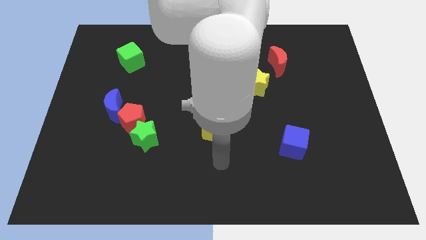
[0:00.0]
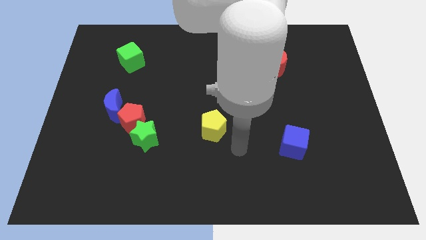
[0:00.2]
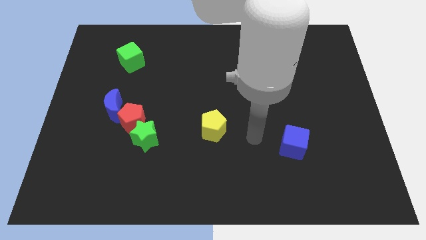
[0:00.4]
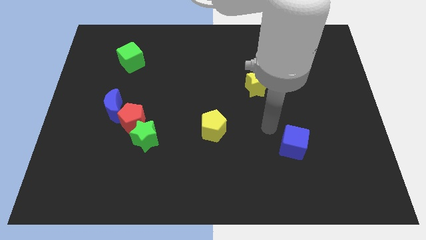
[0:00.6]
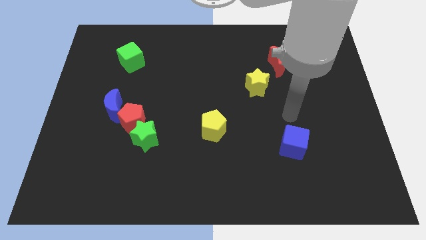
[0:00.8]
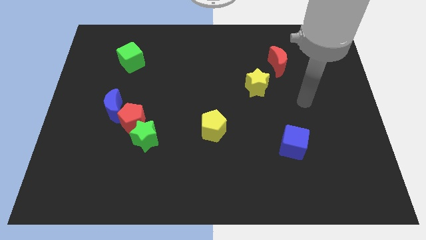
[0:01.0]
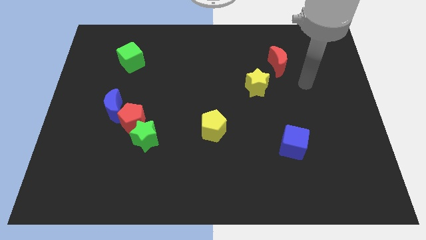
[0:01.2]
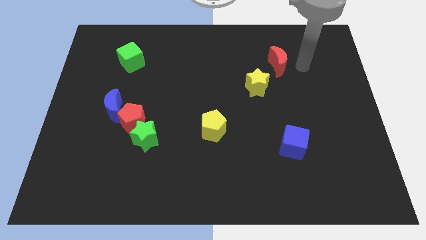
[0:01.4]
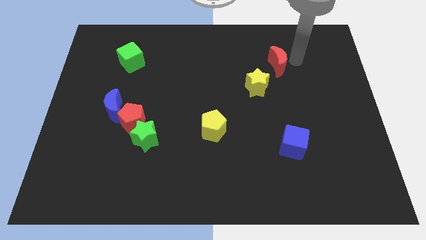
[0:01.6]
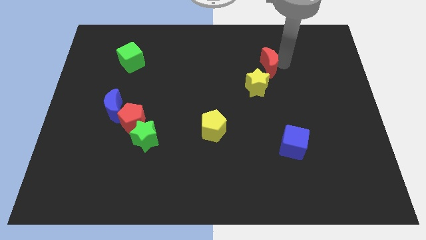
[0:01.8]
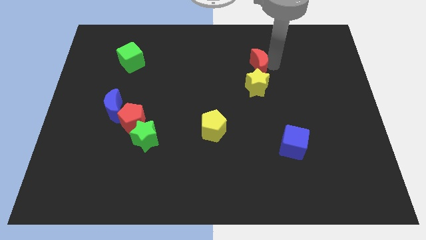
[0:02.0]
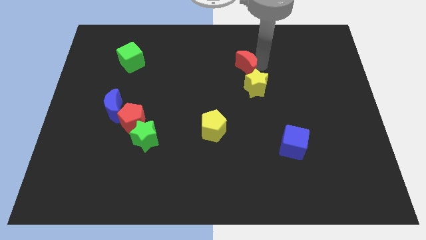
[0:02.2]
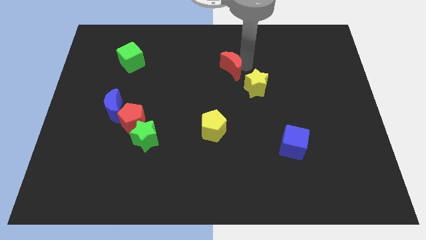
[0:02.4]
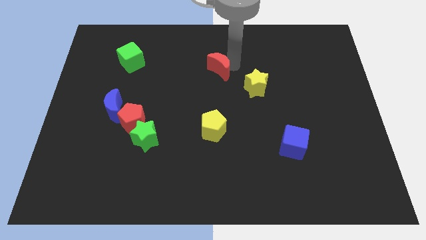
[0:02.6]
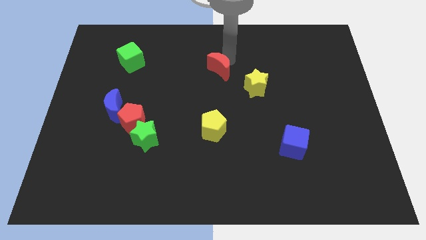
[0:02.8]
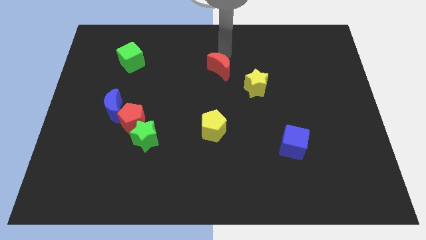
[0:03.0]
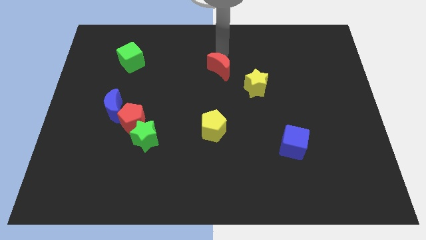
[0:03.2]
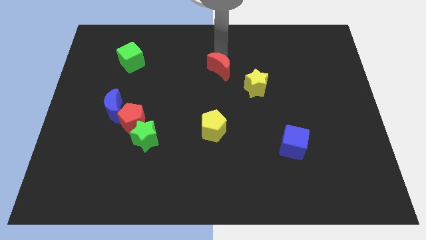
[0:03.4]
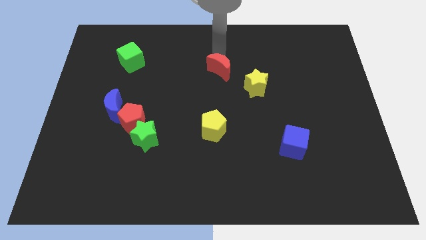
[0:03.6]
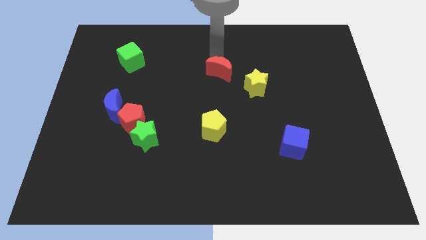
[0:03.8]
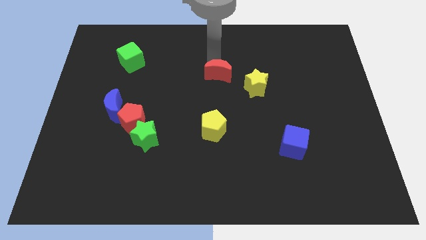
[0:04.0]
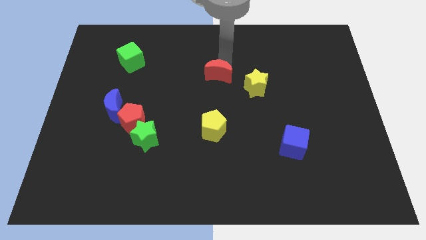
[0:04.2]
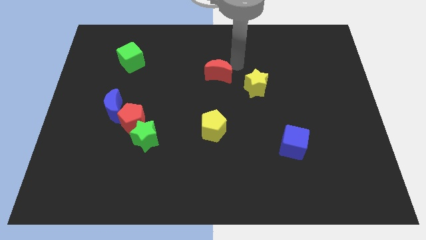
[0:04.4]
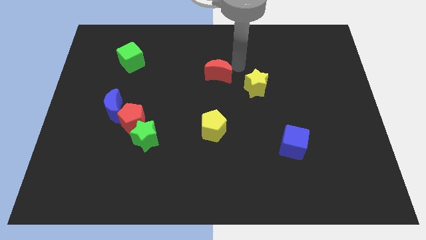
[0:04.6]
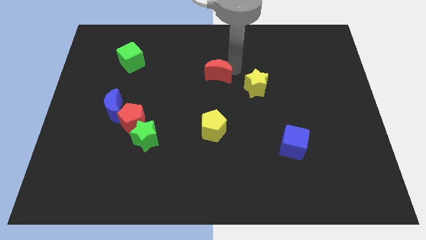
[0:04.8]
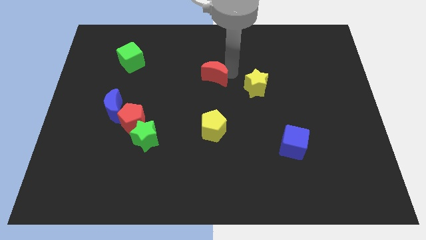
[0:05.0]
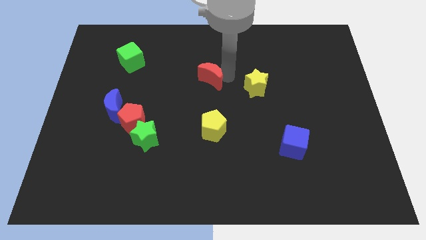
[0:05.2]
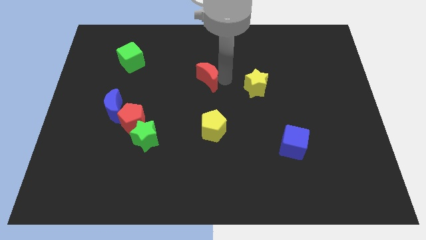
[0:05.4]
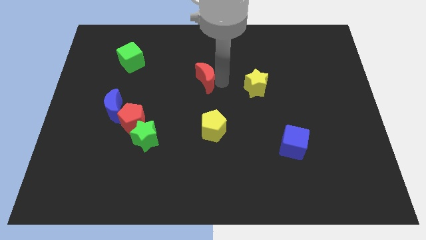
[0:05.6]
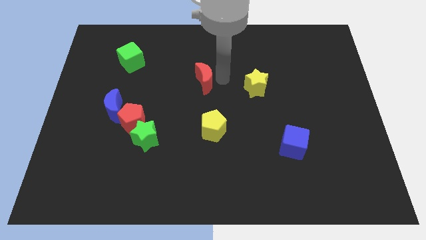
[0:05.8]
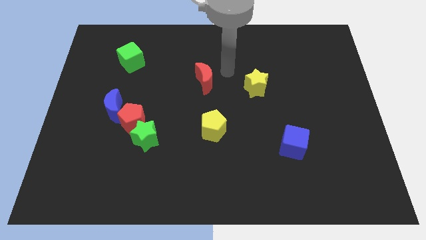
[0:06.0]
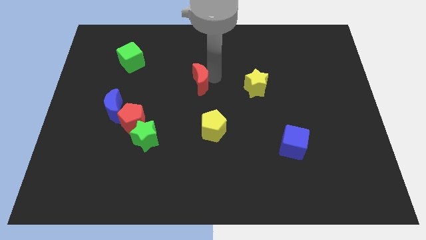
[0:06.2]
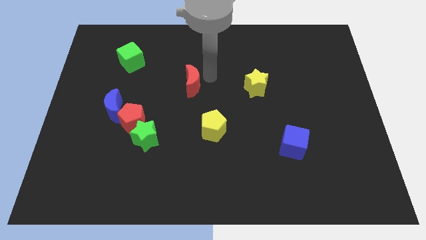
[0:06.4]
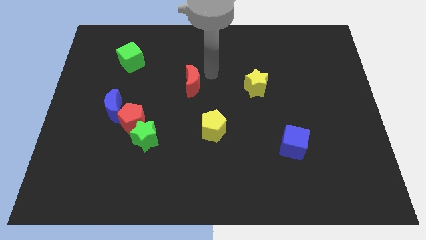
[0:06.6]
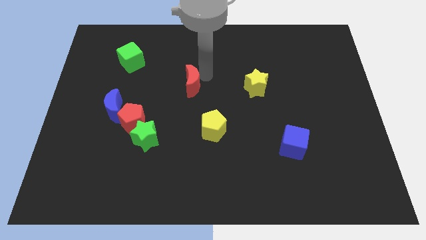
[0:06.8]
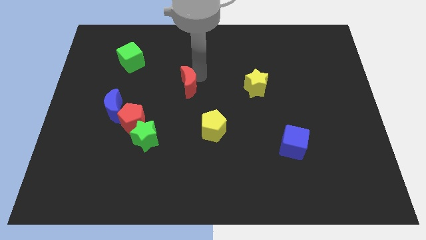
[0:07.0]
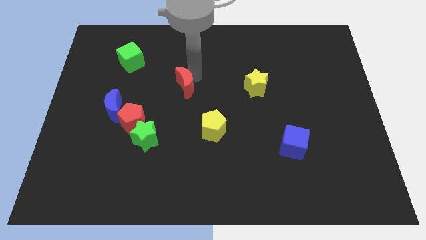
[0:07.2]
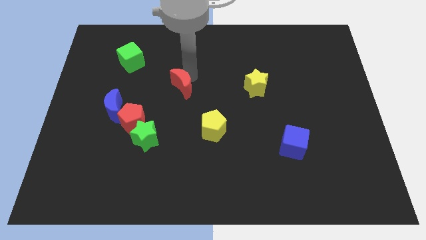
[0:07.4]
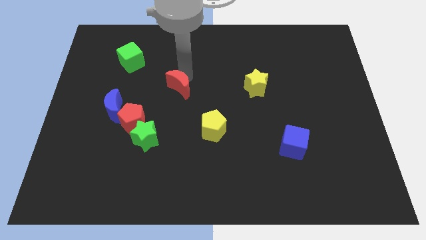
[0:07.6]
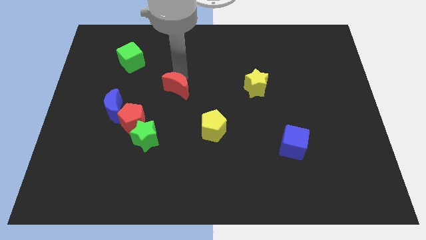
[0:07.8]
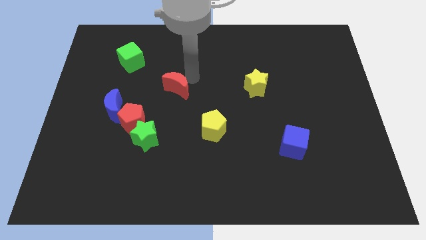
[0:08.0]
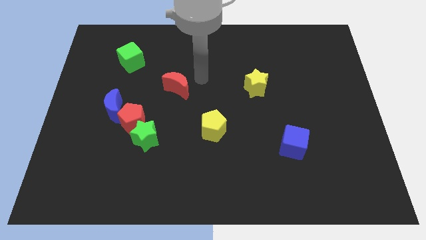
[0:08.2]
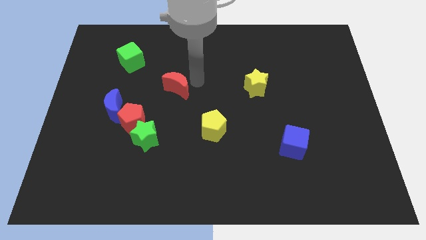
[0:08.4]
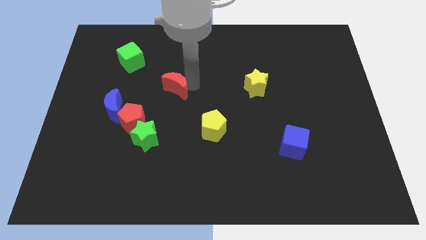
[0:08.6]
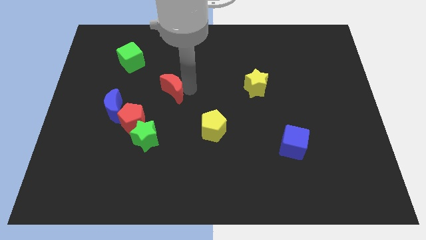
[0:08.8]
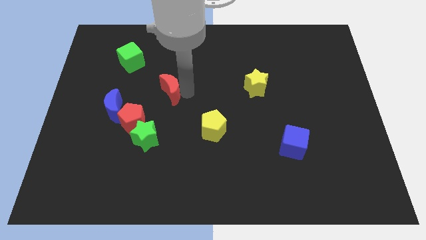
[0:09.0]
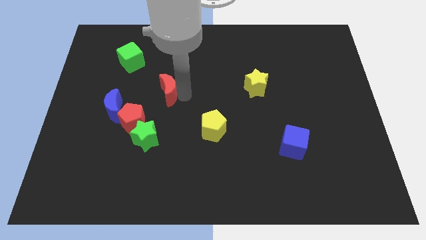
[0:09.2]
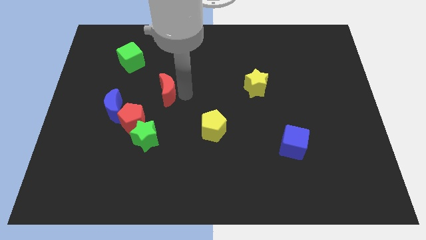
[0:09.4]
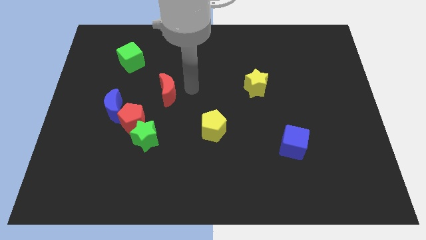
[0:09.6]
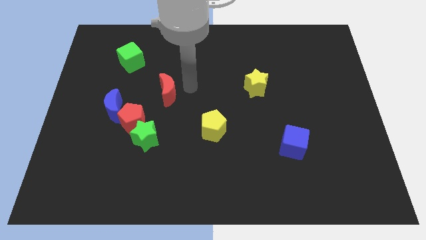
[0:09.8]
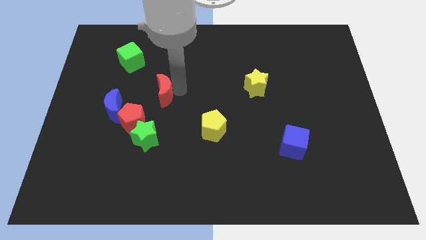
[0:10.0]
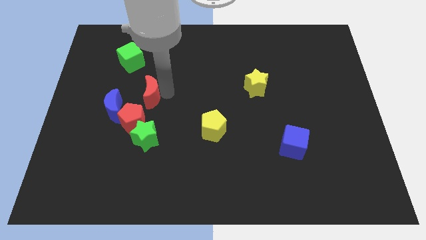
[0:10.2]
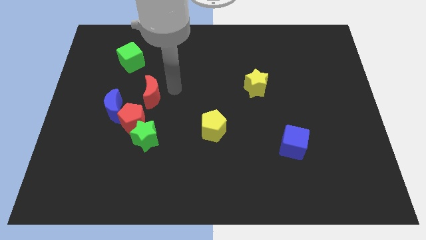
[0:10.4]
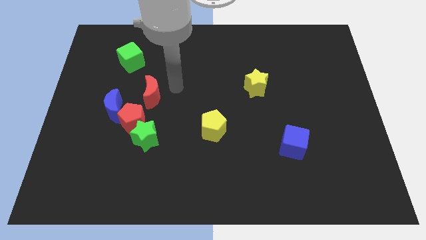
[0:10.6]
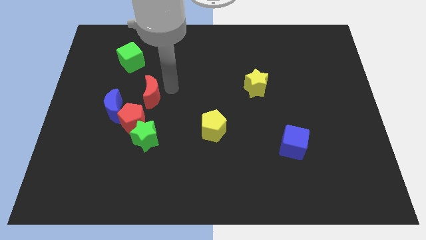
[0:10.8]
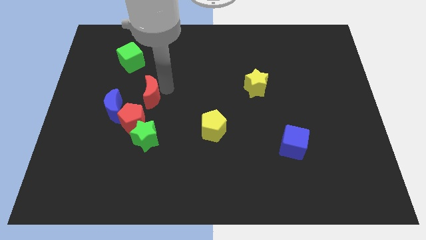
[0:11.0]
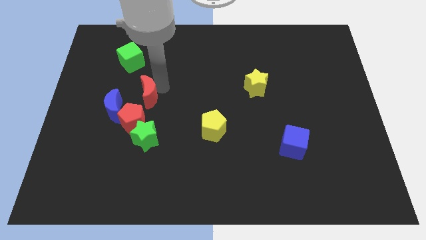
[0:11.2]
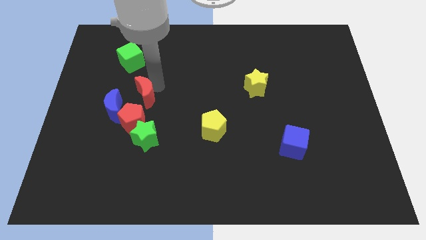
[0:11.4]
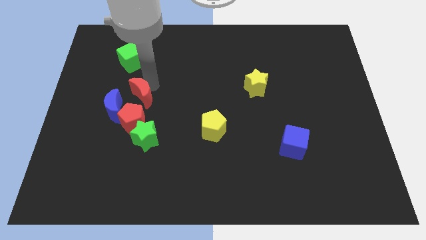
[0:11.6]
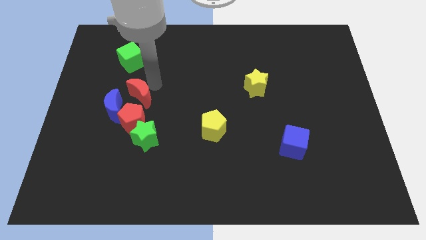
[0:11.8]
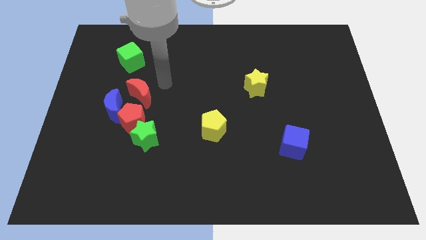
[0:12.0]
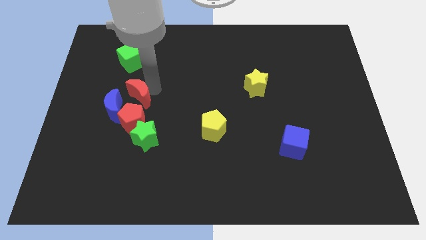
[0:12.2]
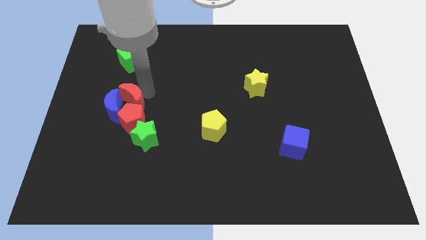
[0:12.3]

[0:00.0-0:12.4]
slide the red moon to the blue moon

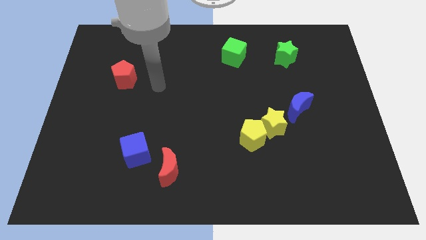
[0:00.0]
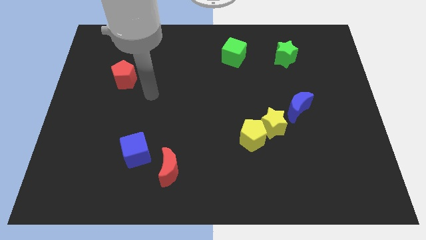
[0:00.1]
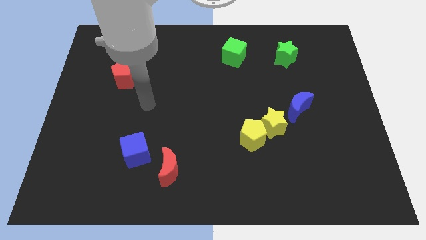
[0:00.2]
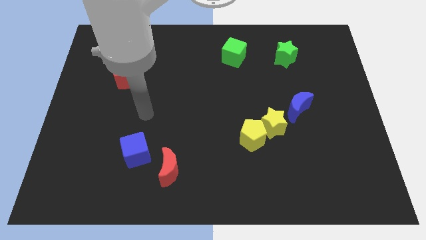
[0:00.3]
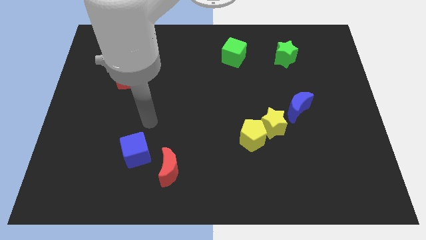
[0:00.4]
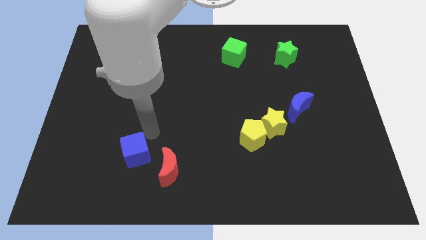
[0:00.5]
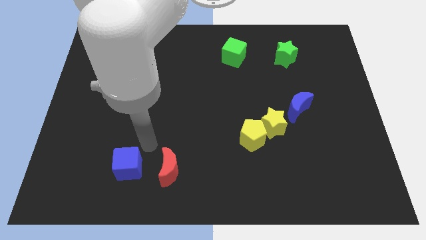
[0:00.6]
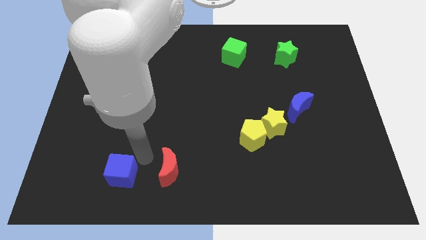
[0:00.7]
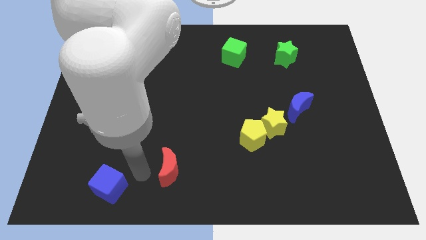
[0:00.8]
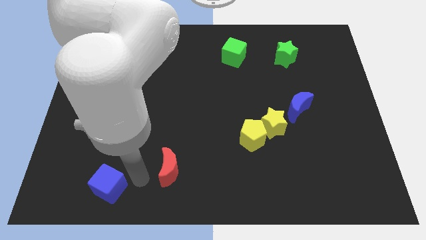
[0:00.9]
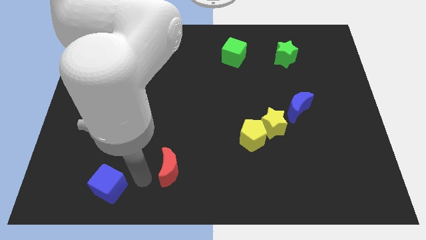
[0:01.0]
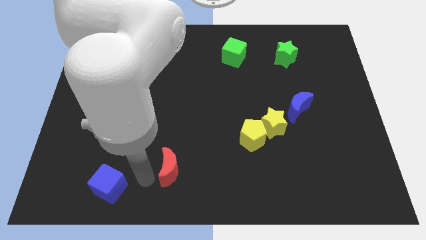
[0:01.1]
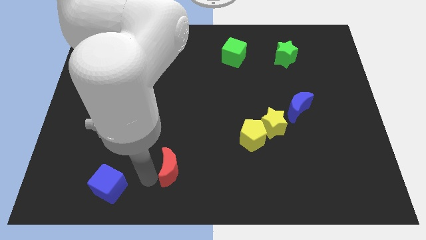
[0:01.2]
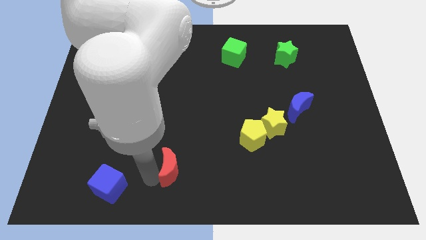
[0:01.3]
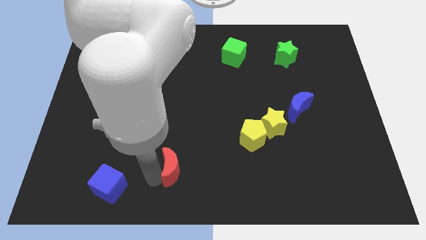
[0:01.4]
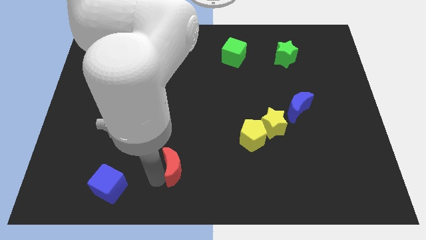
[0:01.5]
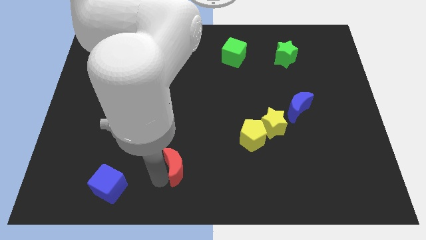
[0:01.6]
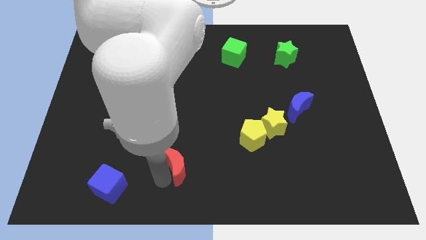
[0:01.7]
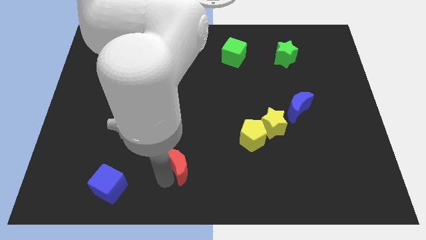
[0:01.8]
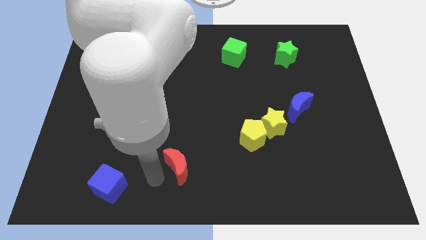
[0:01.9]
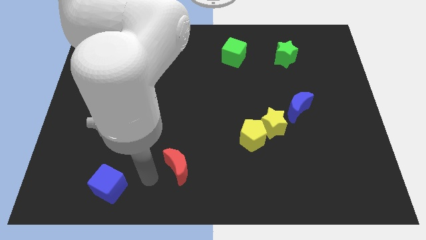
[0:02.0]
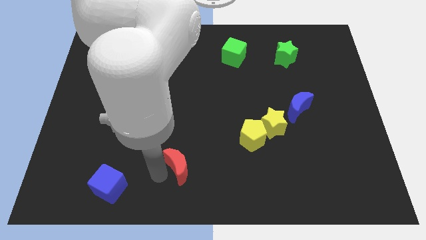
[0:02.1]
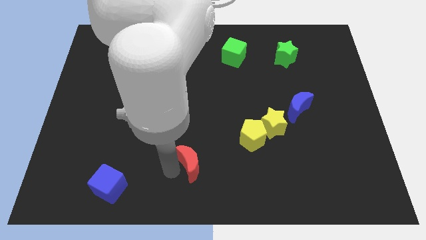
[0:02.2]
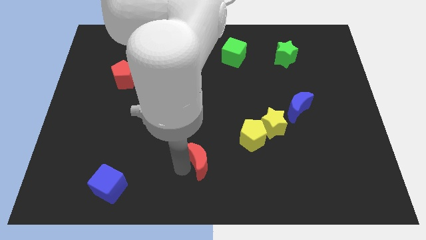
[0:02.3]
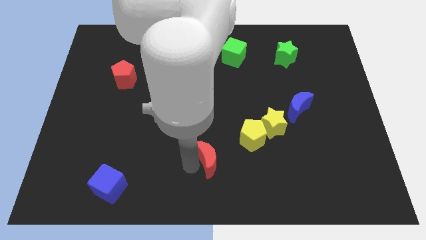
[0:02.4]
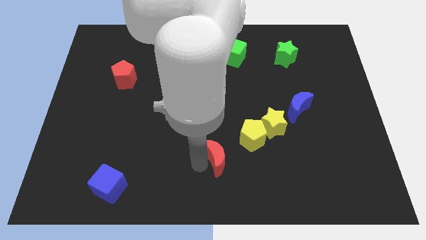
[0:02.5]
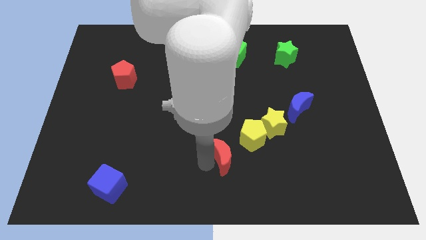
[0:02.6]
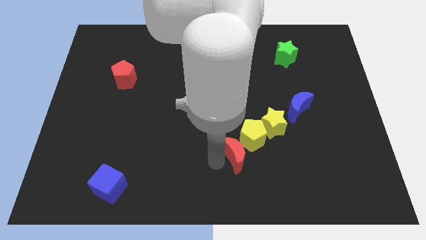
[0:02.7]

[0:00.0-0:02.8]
push the red moon next to the yellow pentagon
